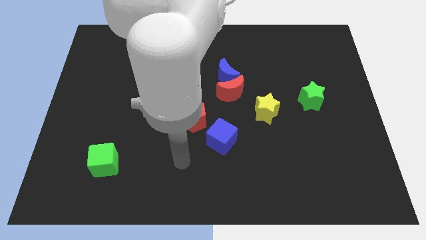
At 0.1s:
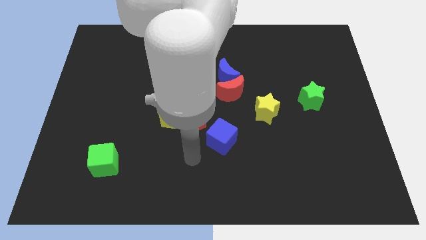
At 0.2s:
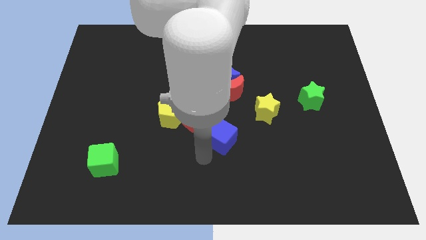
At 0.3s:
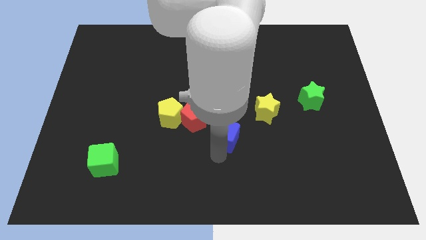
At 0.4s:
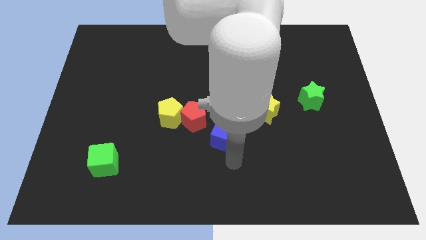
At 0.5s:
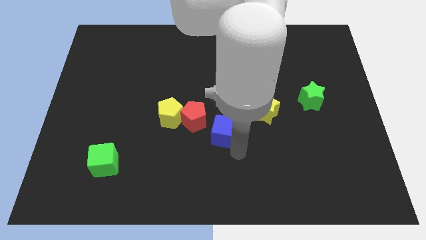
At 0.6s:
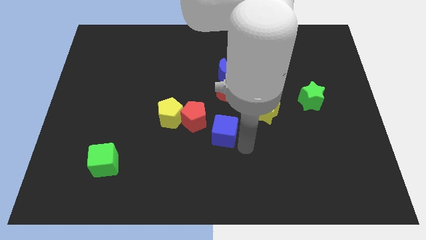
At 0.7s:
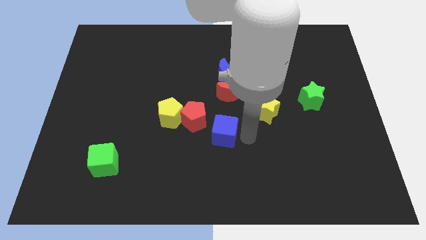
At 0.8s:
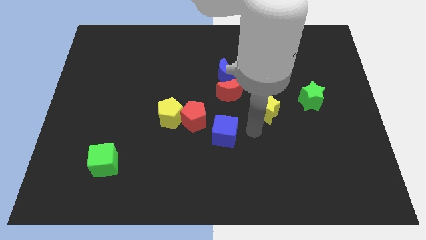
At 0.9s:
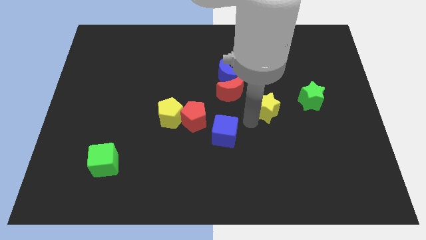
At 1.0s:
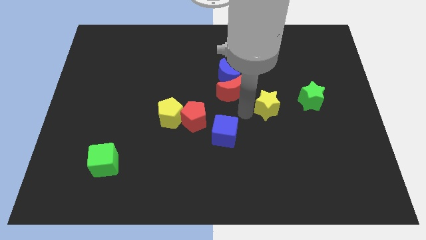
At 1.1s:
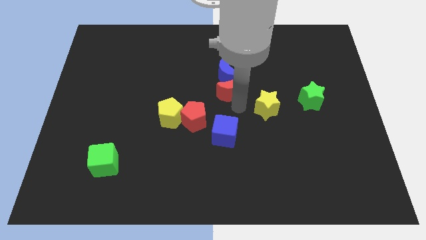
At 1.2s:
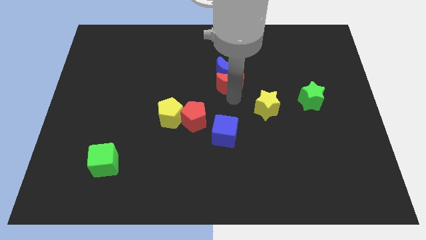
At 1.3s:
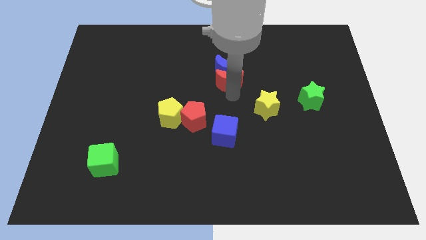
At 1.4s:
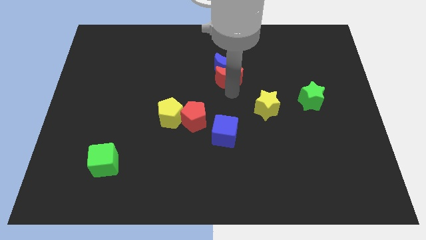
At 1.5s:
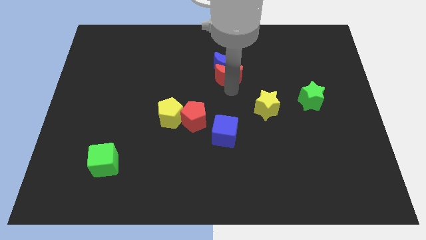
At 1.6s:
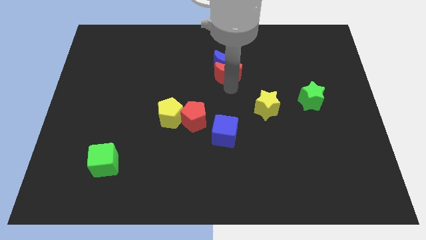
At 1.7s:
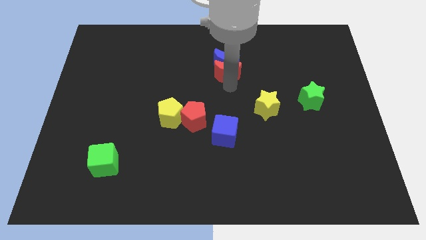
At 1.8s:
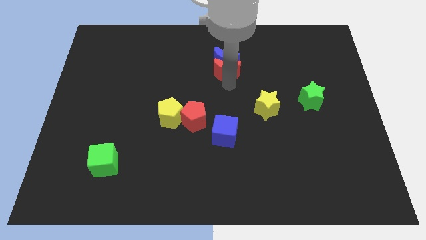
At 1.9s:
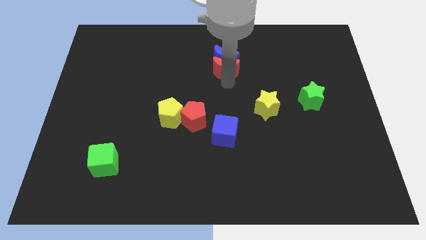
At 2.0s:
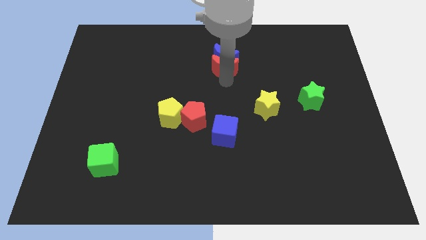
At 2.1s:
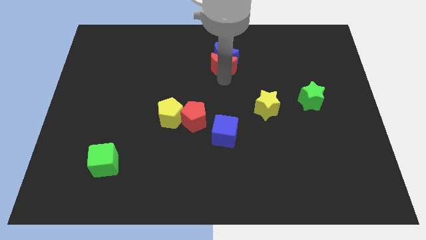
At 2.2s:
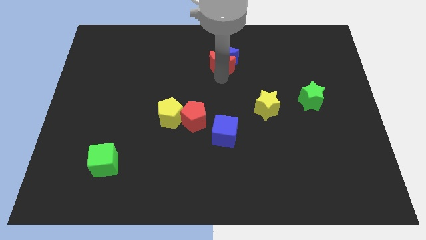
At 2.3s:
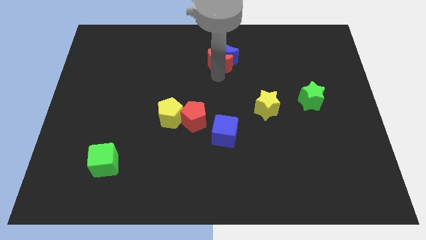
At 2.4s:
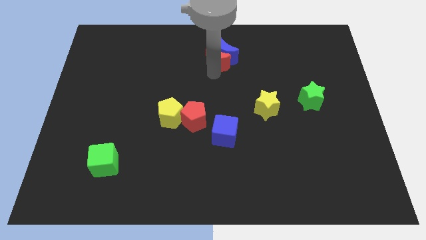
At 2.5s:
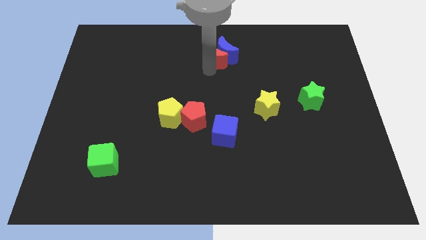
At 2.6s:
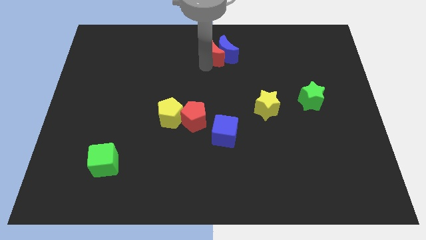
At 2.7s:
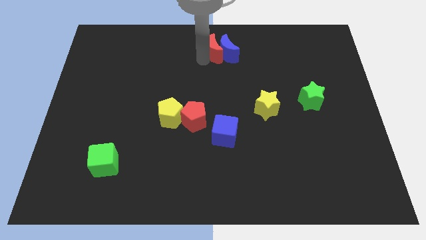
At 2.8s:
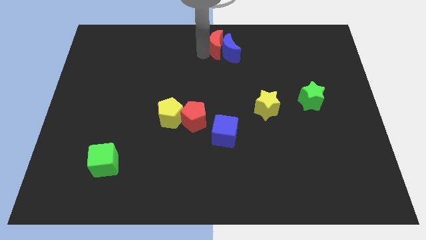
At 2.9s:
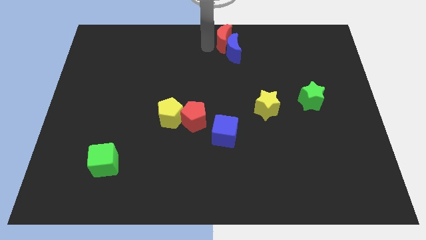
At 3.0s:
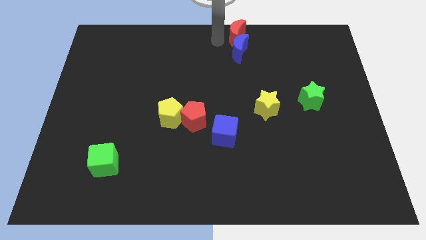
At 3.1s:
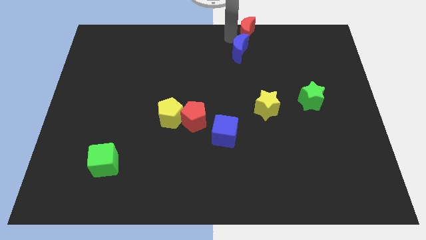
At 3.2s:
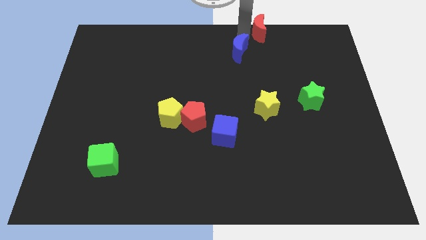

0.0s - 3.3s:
move the blue moon away from the red moon

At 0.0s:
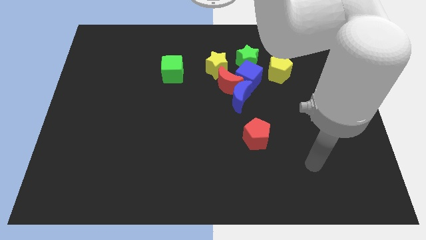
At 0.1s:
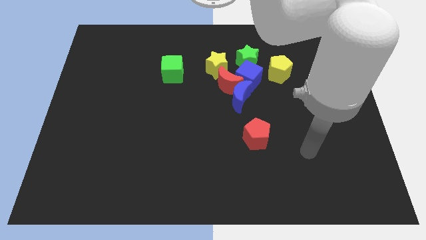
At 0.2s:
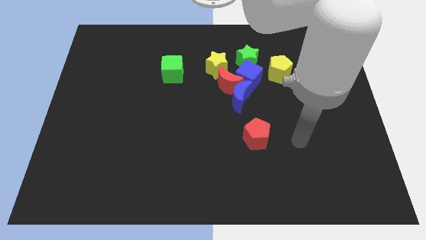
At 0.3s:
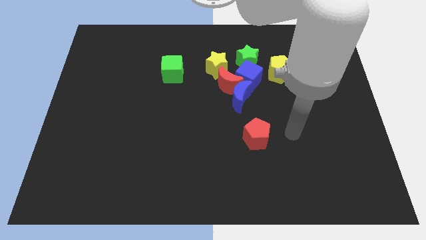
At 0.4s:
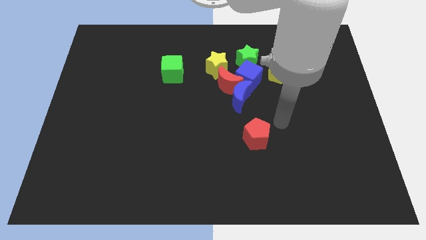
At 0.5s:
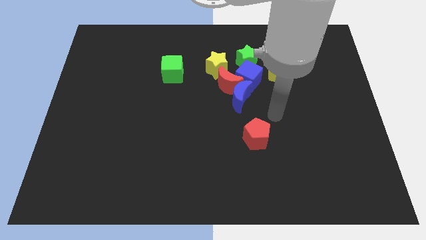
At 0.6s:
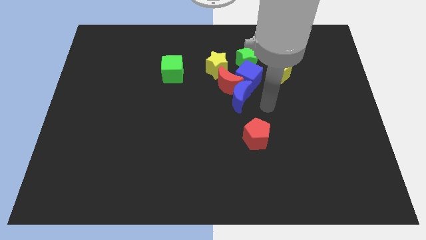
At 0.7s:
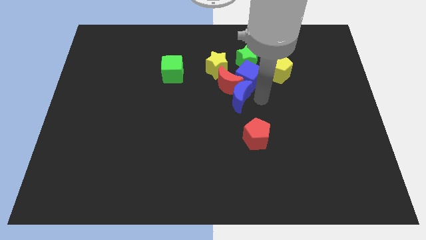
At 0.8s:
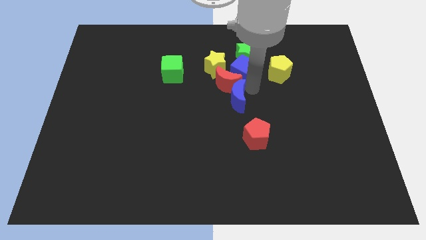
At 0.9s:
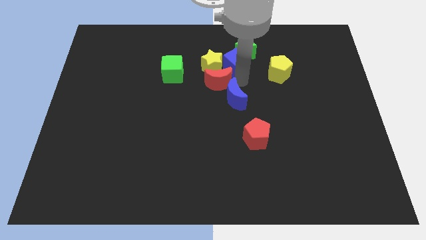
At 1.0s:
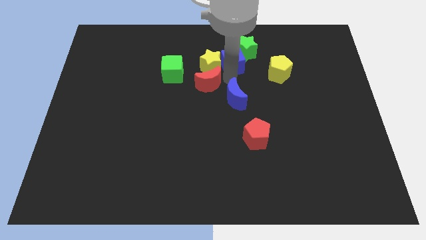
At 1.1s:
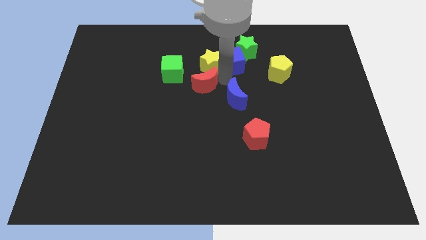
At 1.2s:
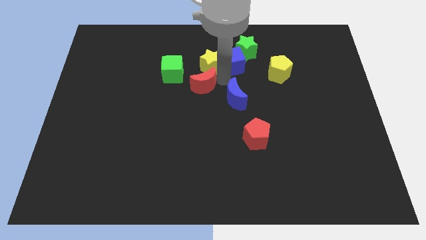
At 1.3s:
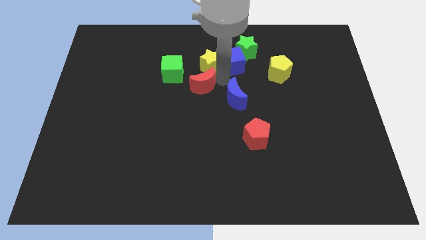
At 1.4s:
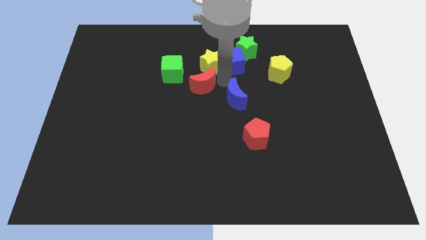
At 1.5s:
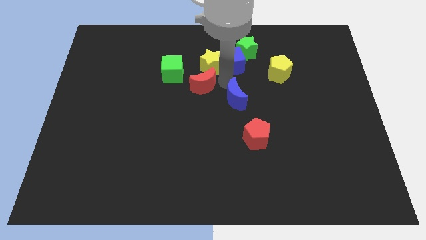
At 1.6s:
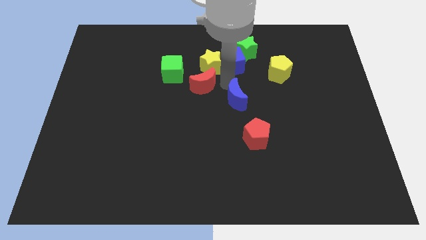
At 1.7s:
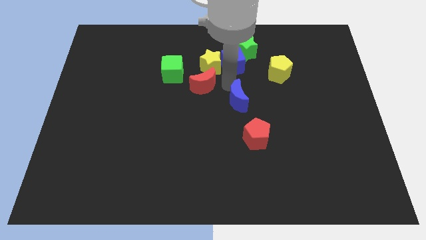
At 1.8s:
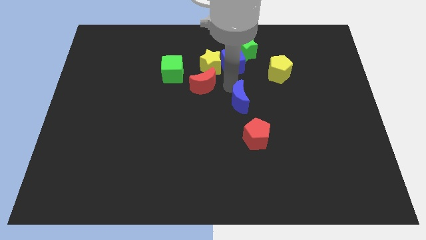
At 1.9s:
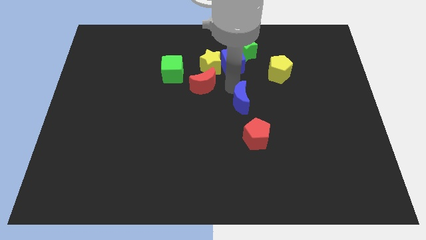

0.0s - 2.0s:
separate the blue moon from the red moon and blue cube

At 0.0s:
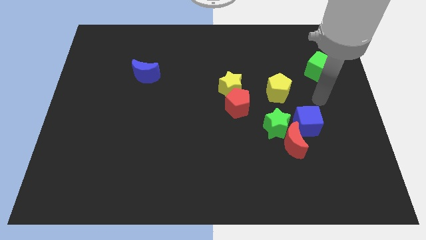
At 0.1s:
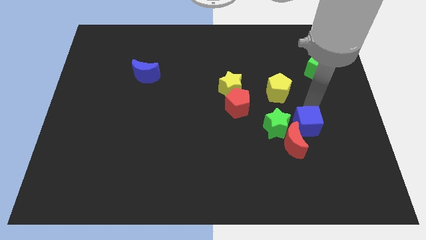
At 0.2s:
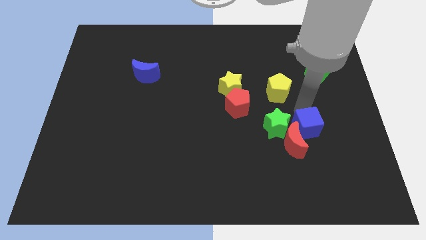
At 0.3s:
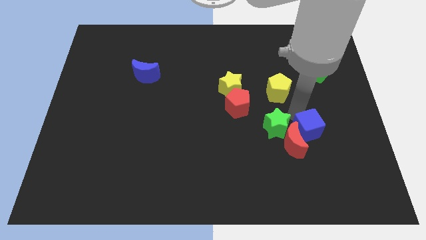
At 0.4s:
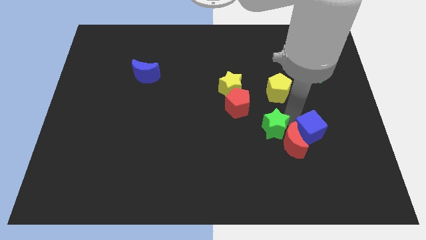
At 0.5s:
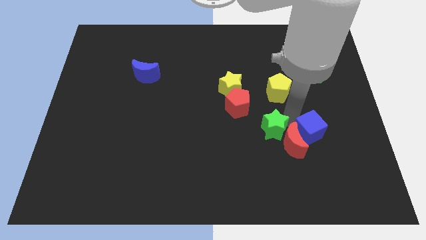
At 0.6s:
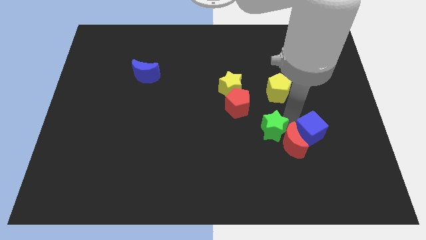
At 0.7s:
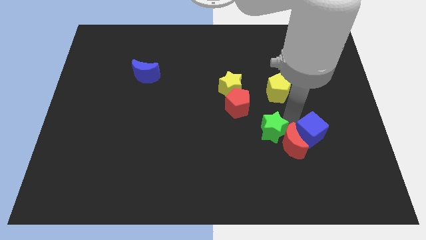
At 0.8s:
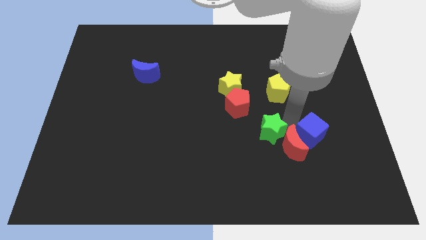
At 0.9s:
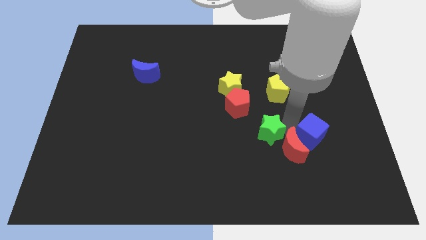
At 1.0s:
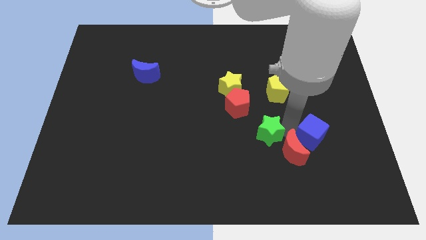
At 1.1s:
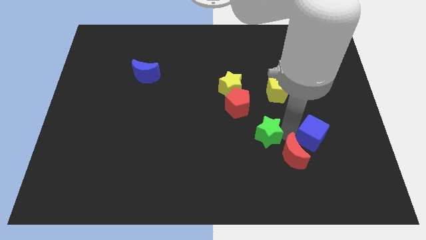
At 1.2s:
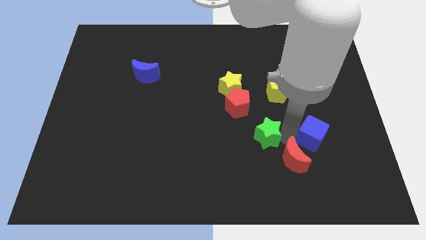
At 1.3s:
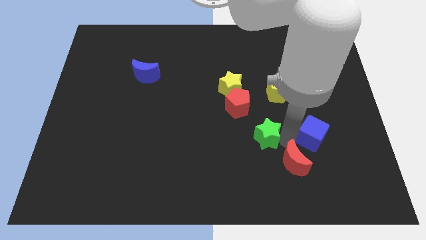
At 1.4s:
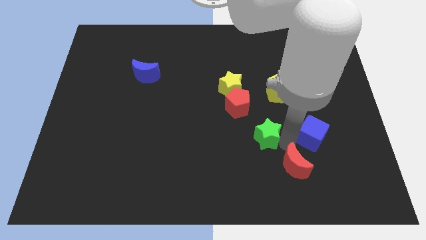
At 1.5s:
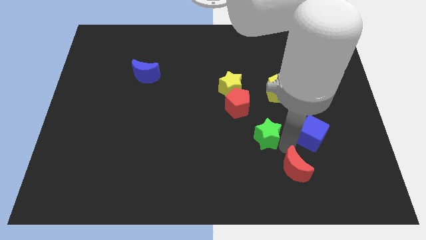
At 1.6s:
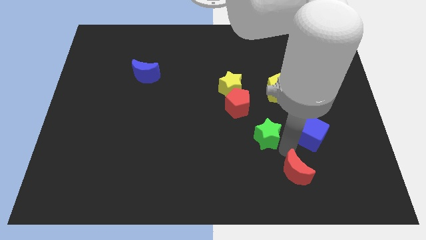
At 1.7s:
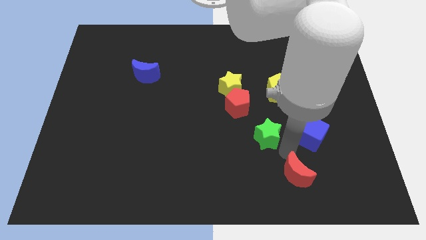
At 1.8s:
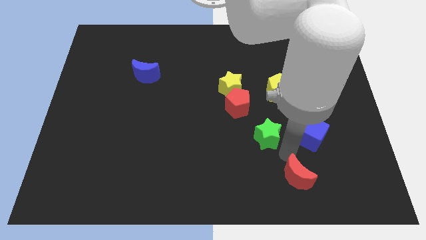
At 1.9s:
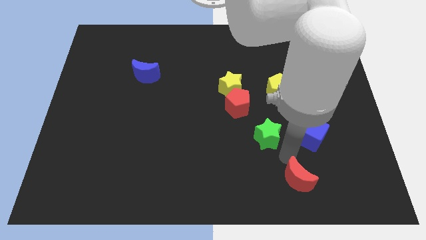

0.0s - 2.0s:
move the red moon away from the green star and blue cube

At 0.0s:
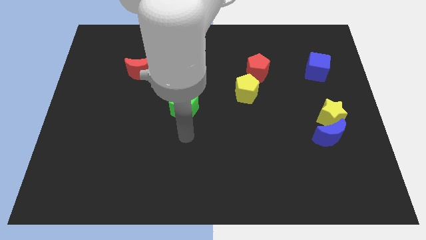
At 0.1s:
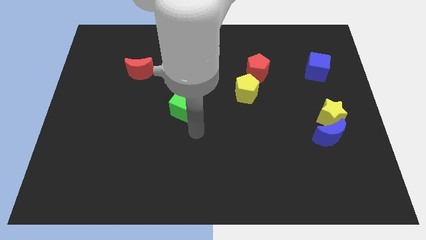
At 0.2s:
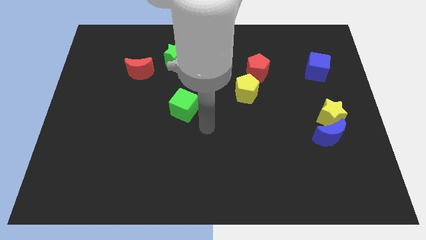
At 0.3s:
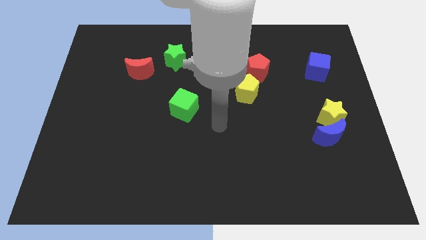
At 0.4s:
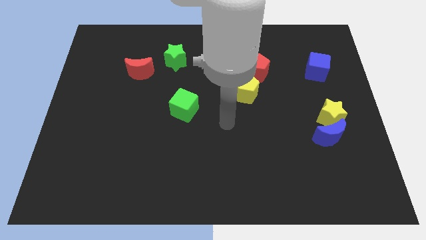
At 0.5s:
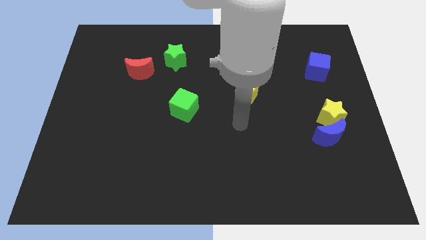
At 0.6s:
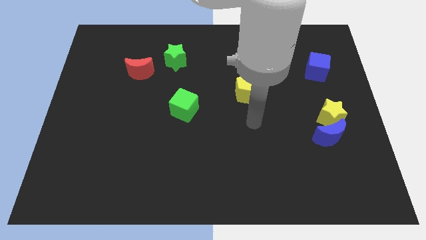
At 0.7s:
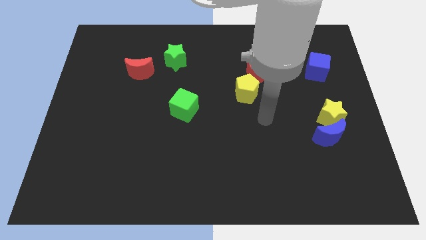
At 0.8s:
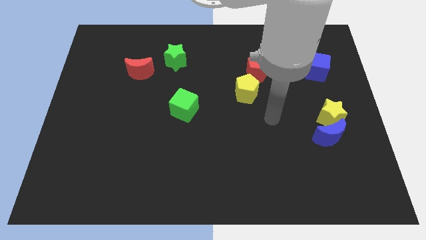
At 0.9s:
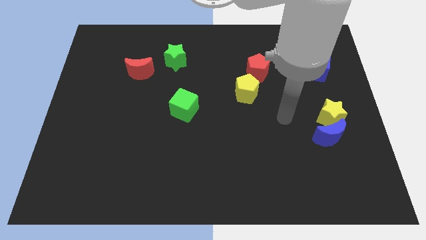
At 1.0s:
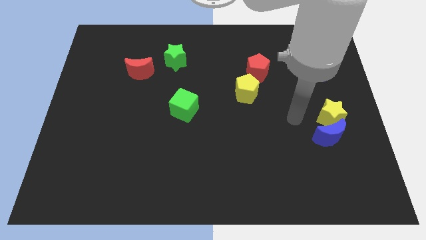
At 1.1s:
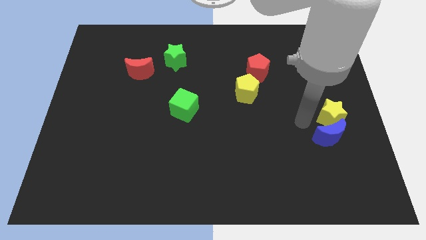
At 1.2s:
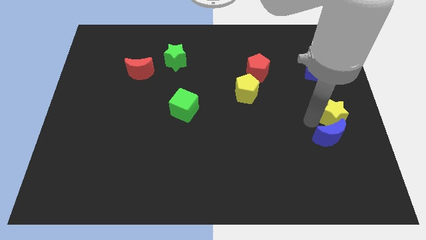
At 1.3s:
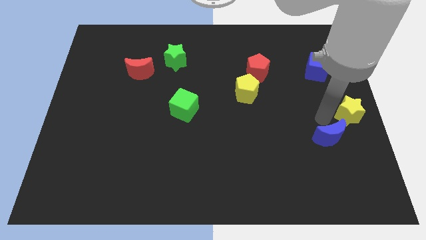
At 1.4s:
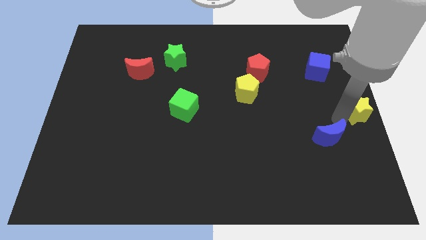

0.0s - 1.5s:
move the blue moon away from the yellow star

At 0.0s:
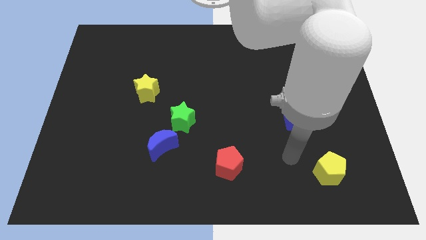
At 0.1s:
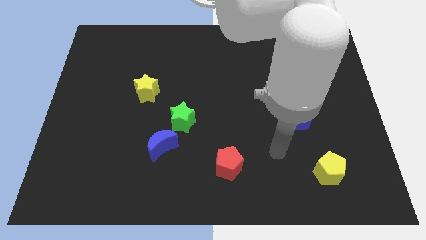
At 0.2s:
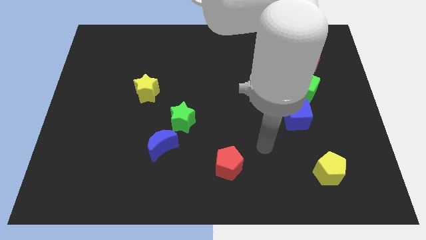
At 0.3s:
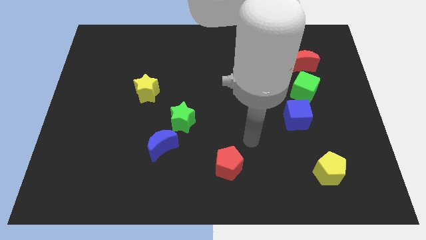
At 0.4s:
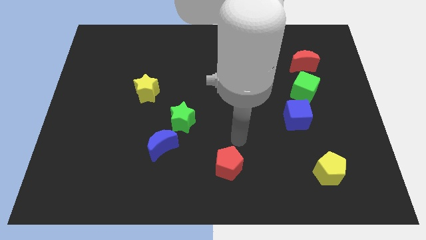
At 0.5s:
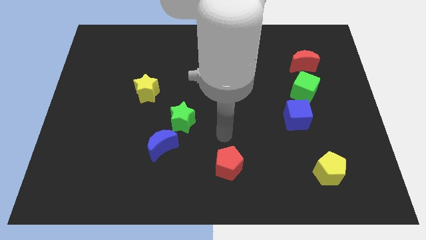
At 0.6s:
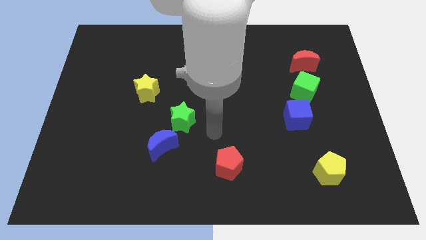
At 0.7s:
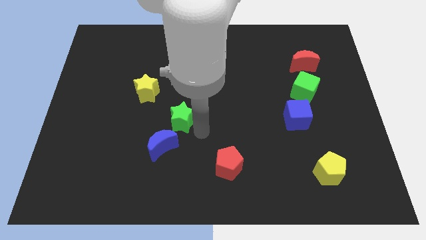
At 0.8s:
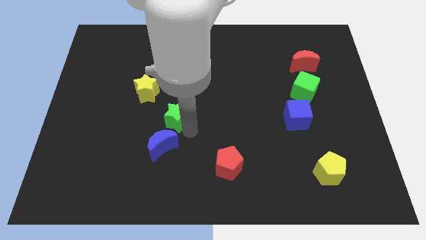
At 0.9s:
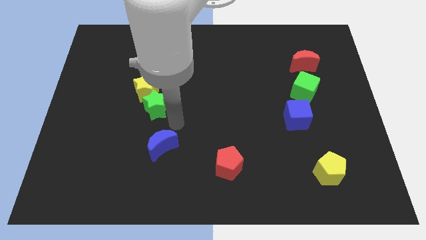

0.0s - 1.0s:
pull the blue moon apart from the green star
